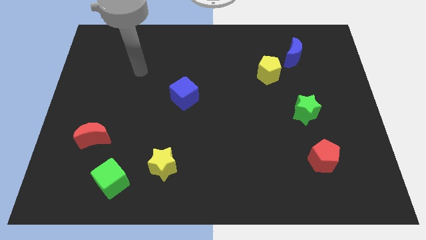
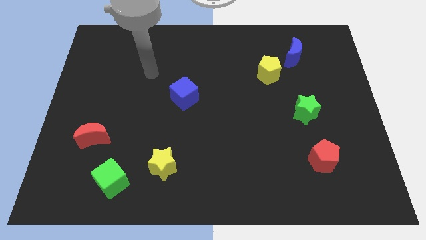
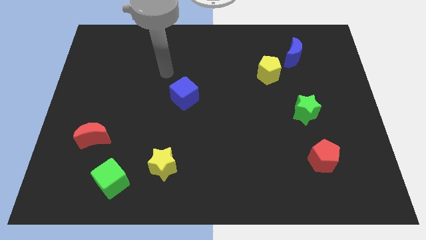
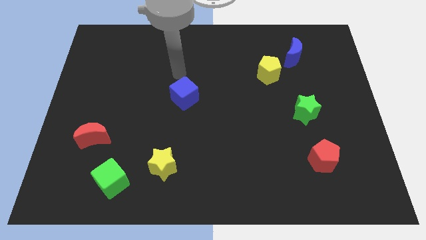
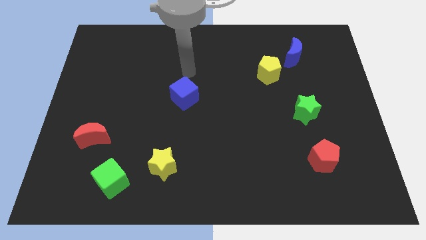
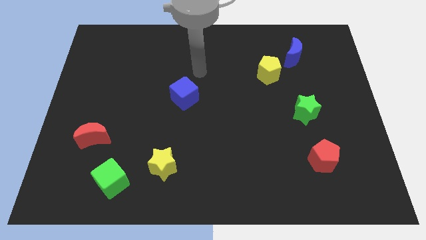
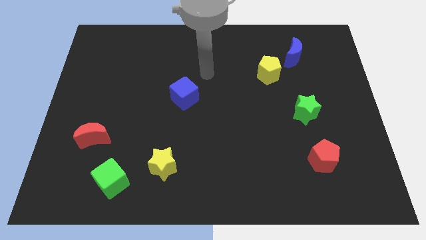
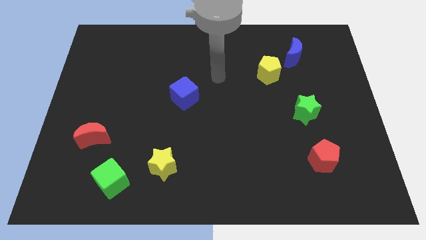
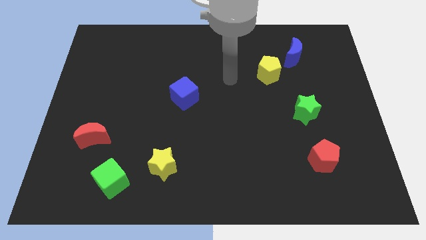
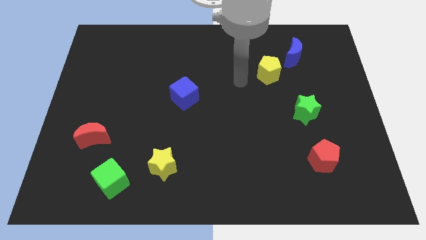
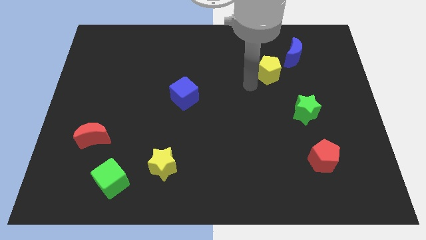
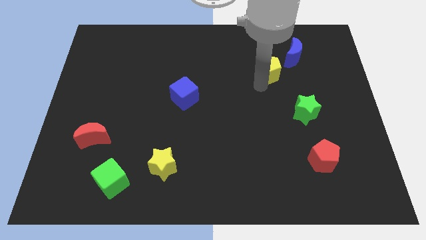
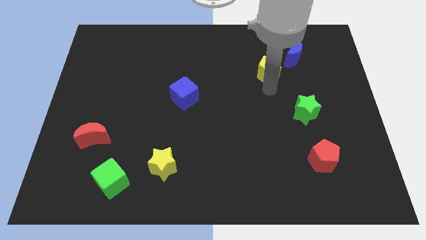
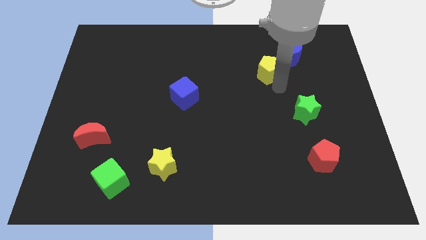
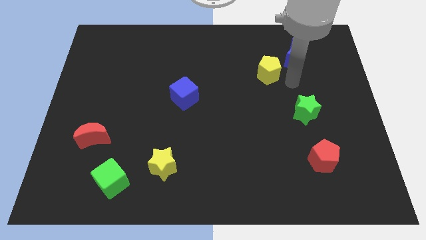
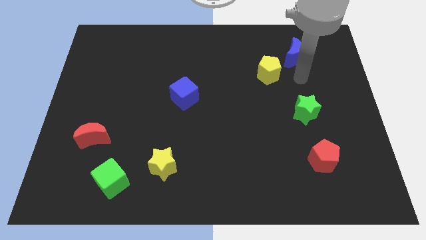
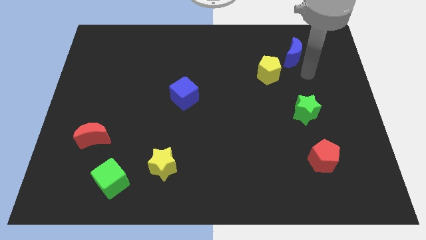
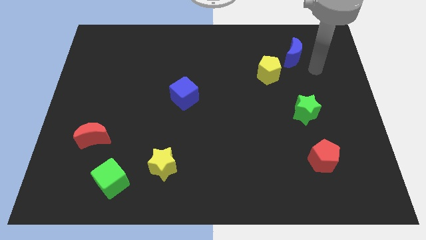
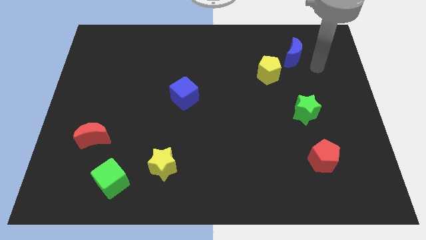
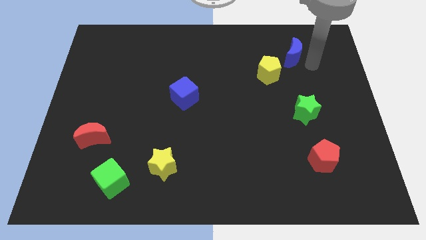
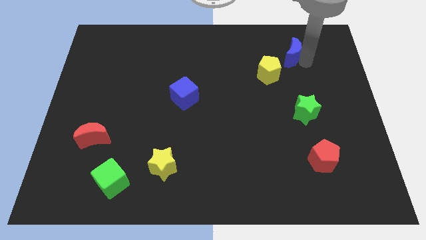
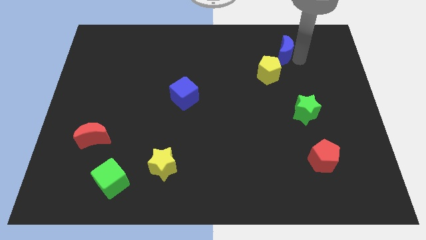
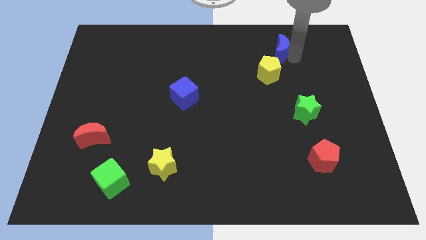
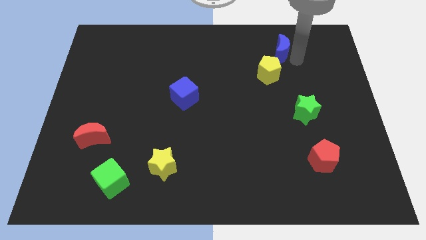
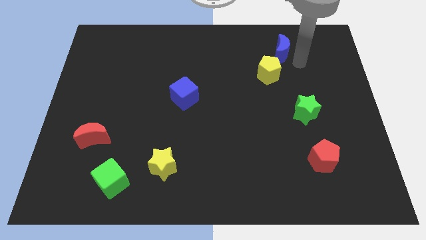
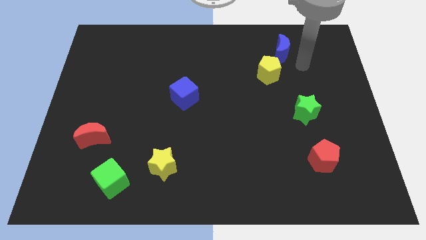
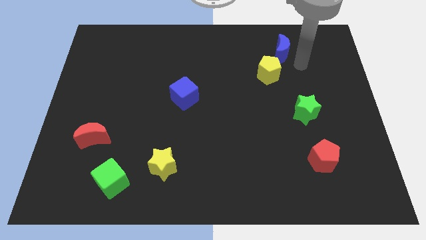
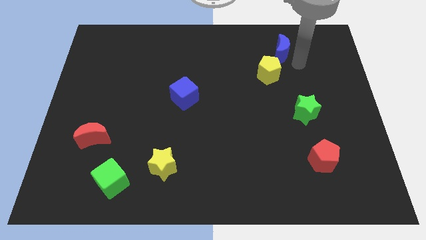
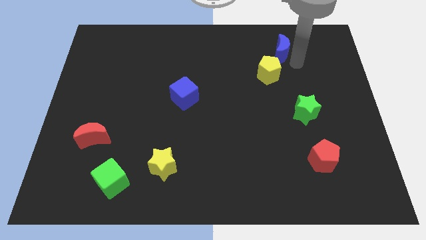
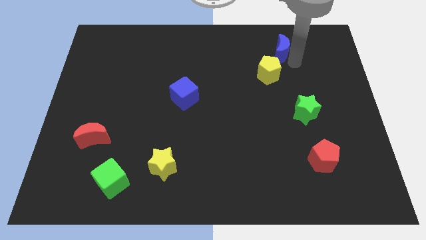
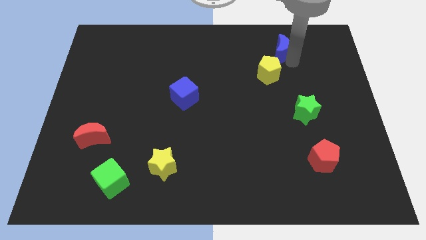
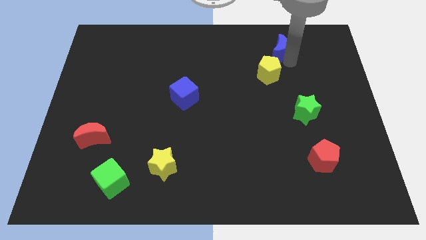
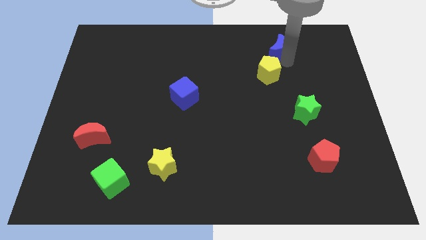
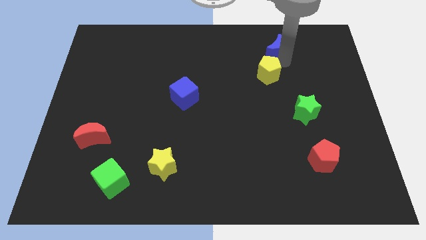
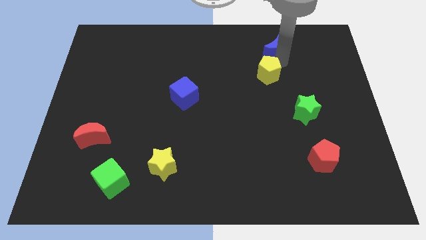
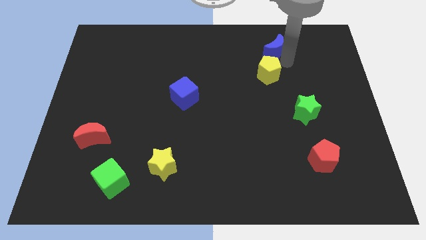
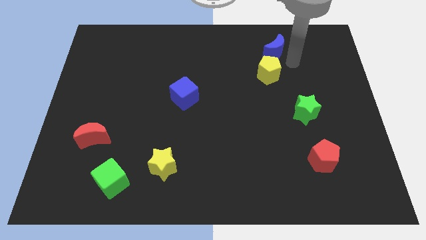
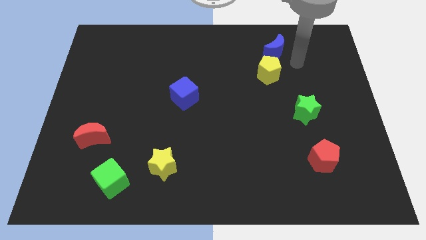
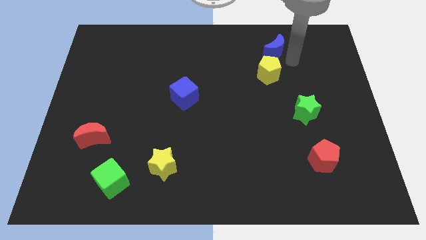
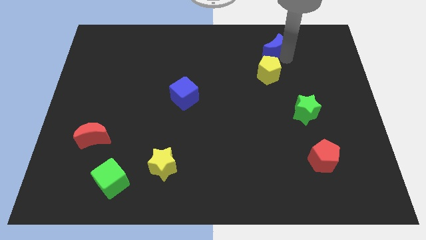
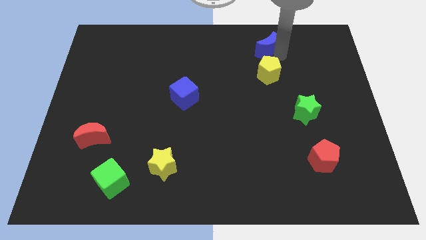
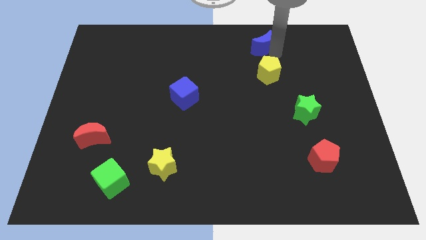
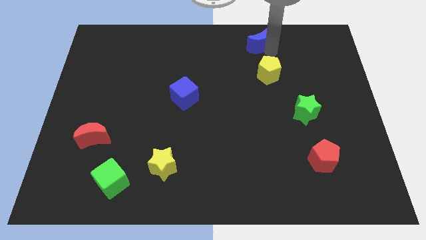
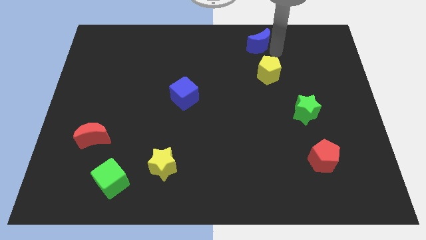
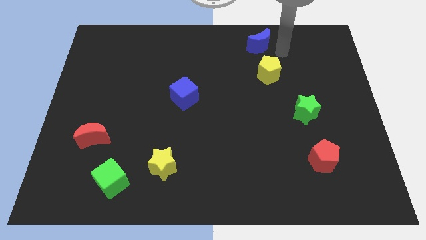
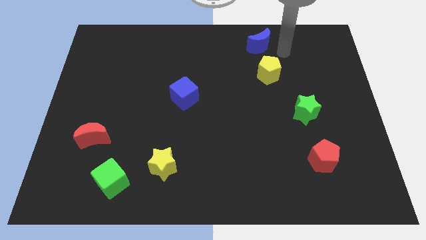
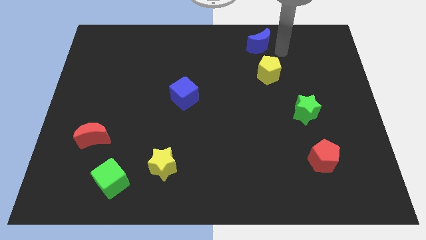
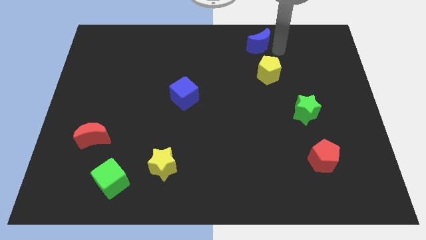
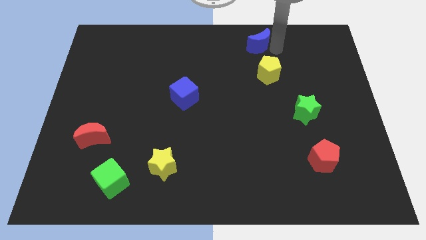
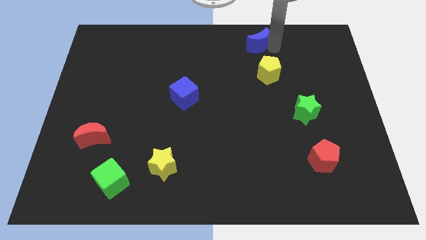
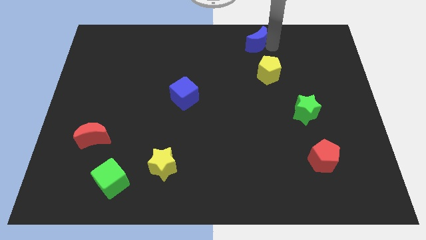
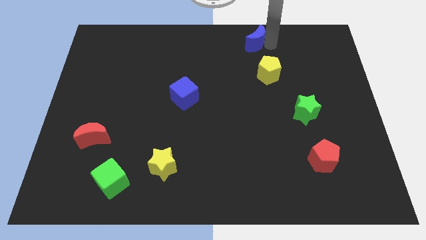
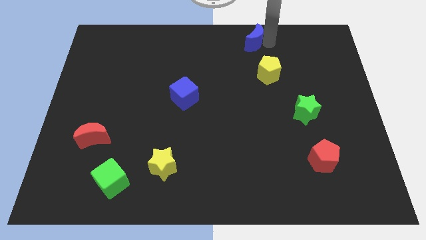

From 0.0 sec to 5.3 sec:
put the blue moon to the top side

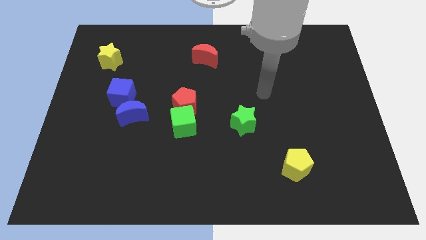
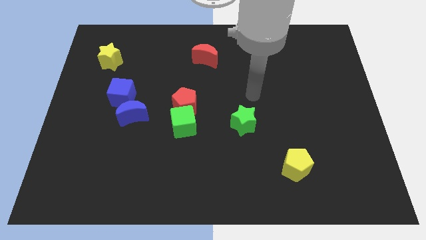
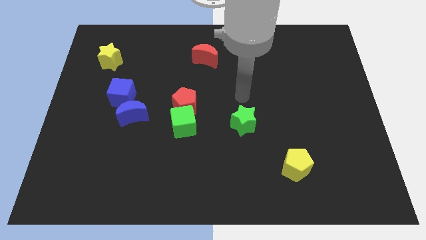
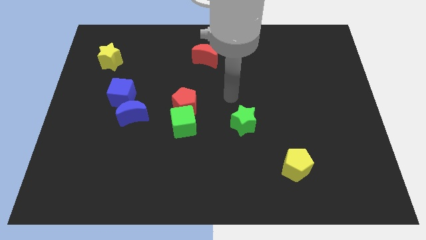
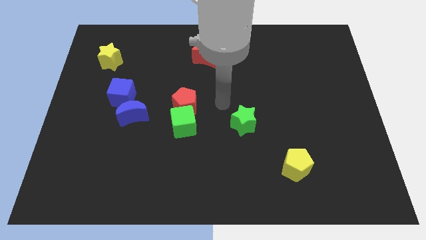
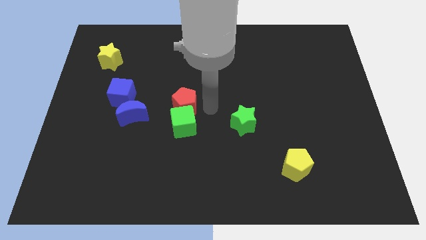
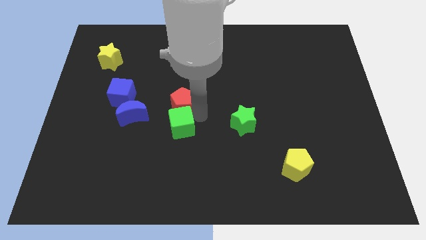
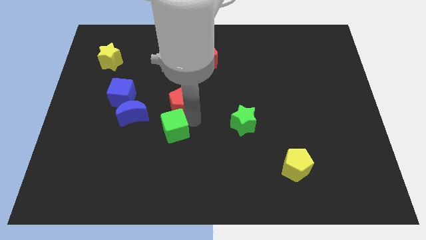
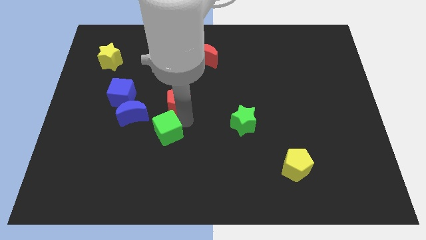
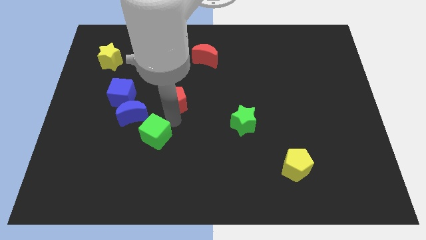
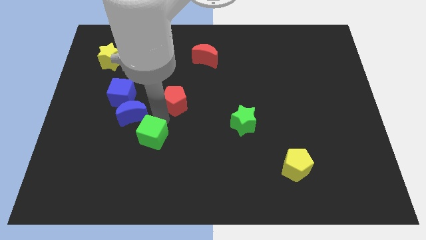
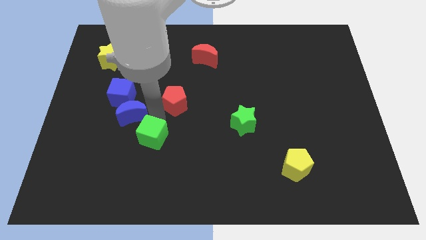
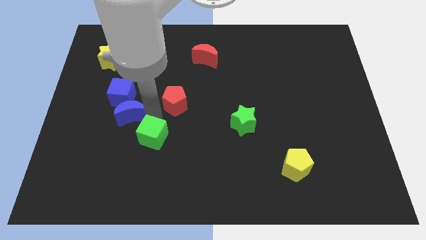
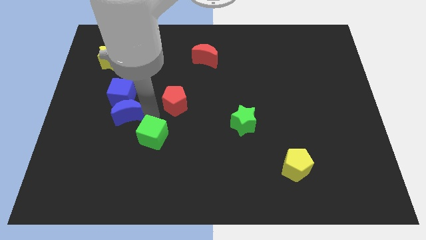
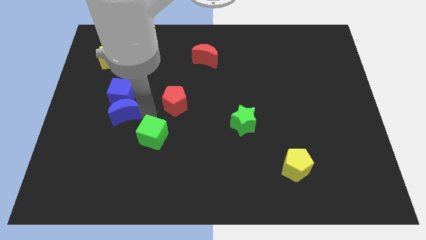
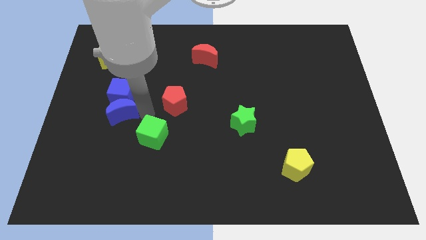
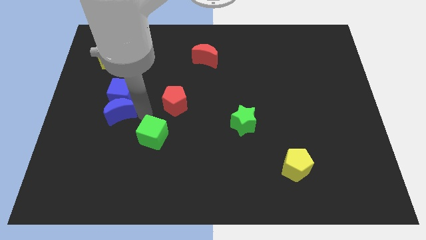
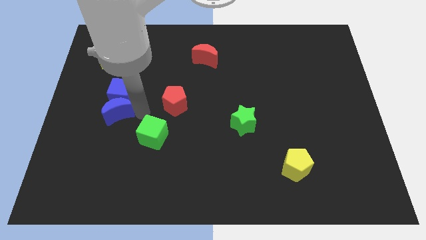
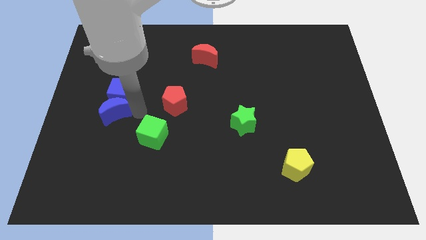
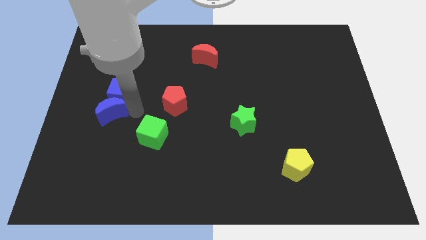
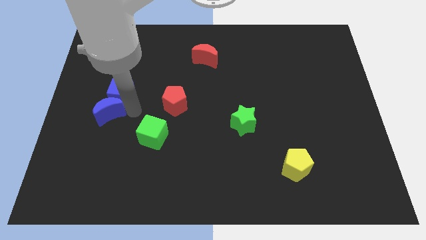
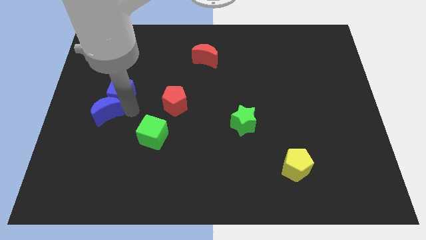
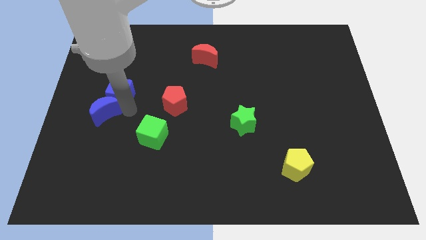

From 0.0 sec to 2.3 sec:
slide the blue moon to the center left
